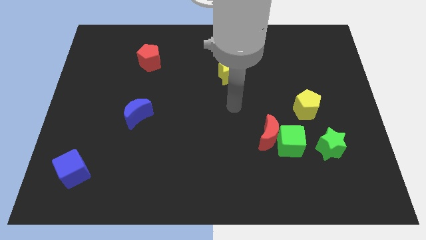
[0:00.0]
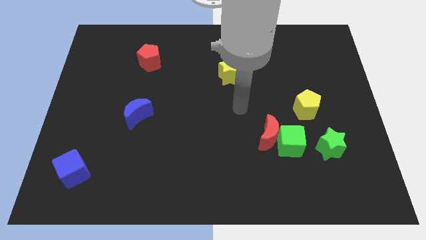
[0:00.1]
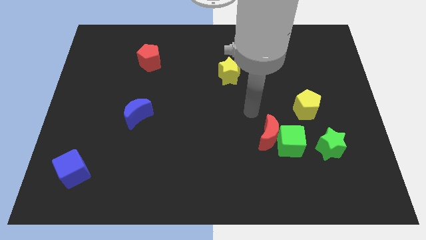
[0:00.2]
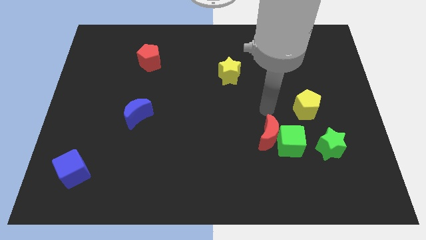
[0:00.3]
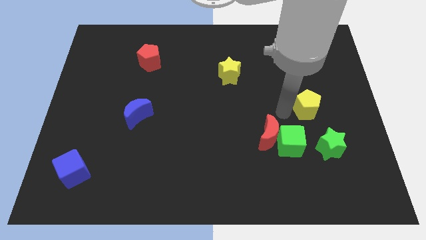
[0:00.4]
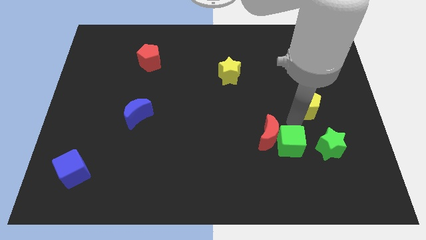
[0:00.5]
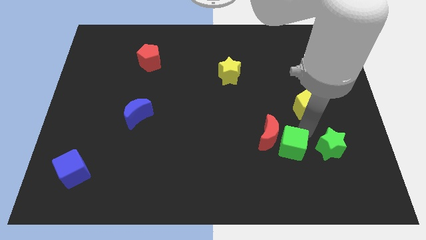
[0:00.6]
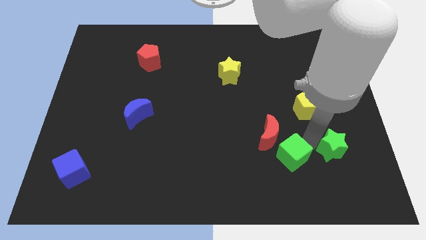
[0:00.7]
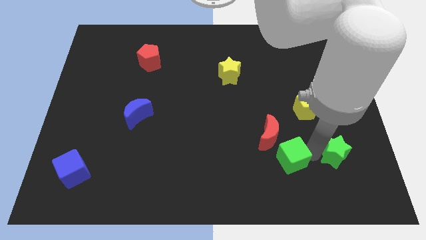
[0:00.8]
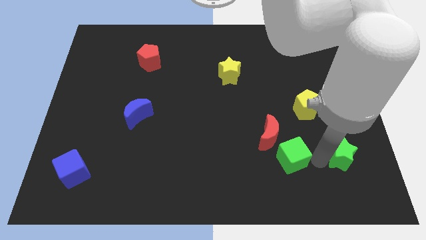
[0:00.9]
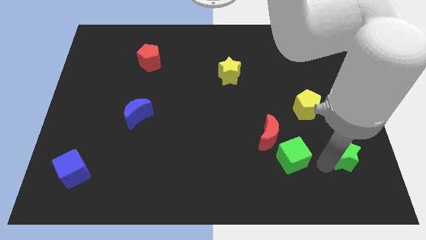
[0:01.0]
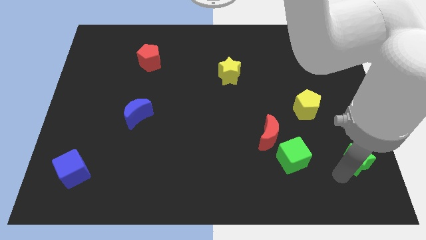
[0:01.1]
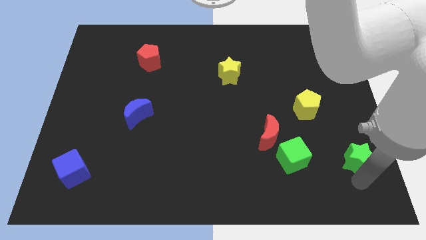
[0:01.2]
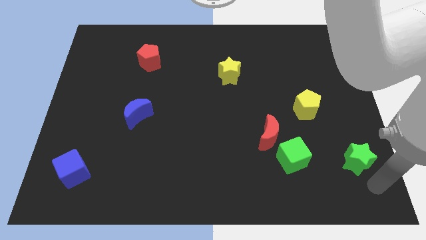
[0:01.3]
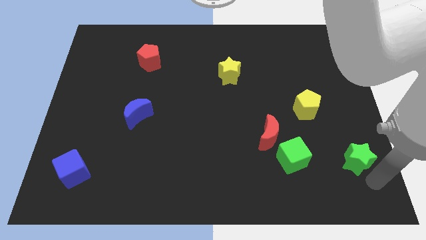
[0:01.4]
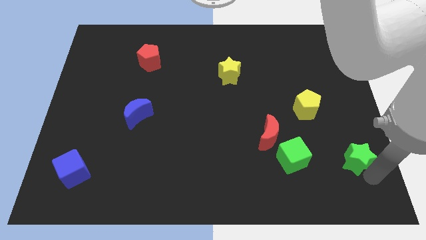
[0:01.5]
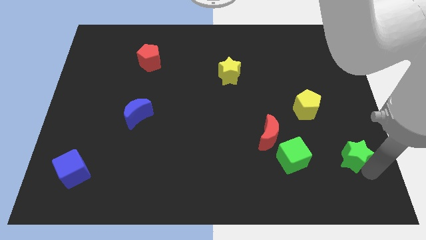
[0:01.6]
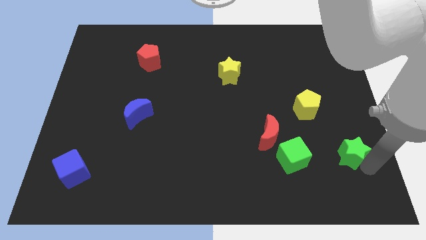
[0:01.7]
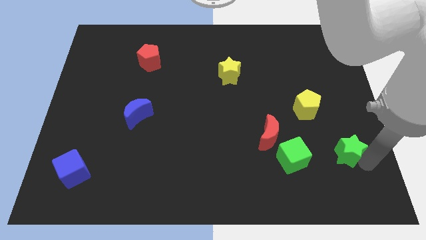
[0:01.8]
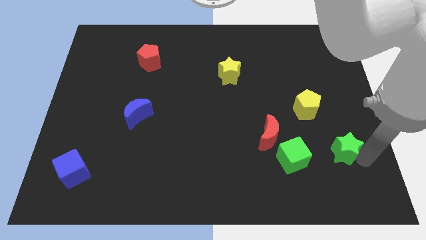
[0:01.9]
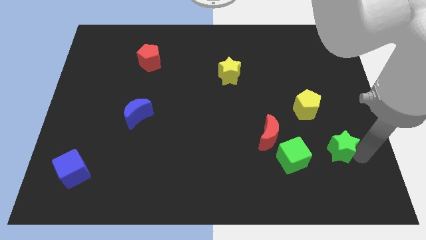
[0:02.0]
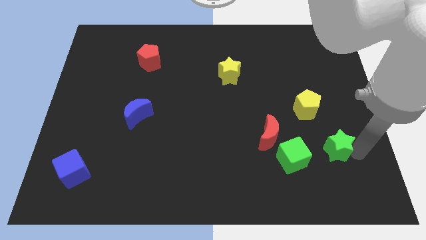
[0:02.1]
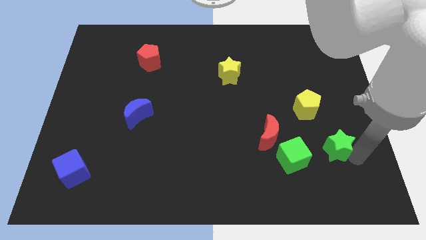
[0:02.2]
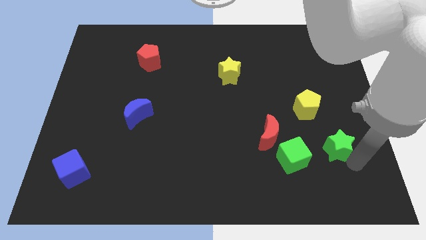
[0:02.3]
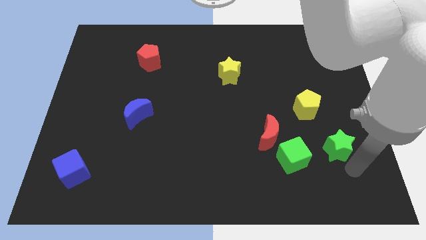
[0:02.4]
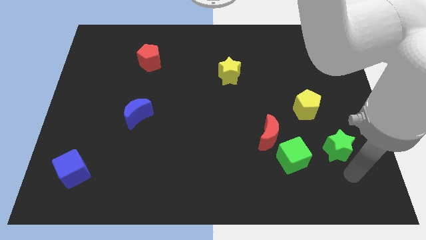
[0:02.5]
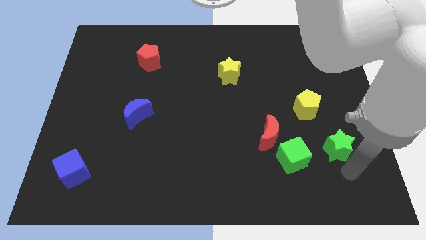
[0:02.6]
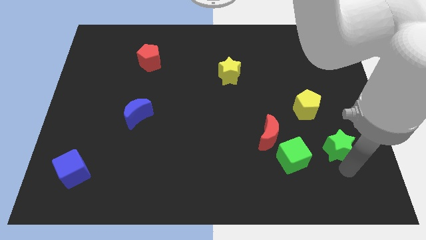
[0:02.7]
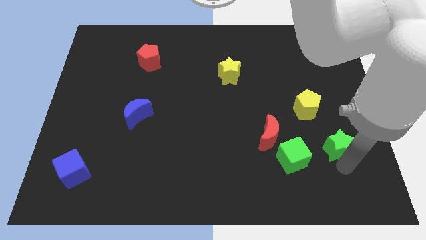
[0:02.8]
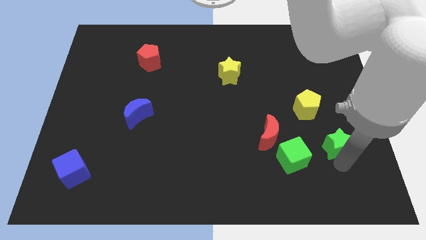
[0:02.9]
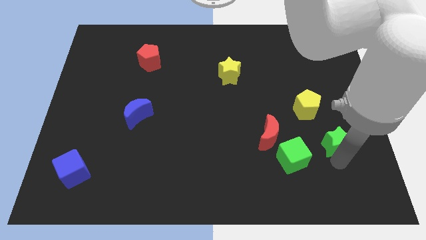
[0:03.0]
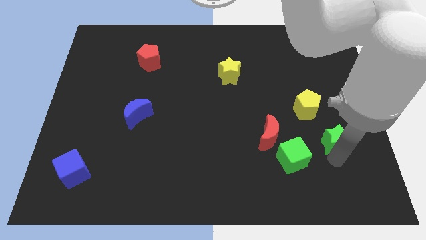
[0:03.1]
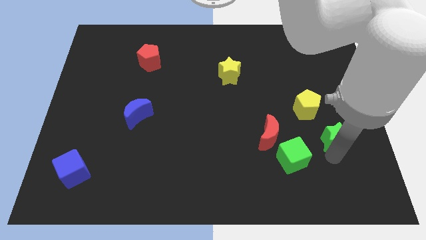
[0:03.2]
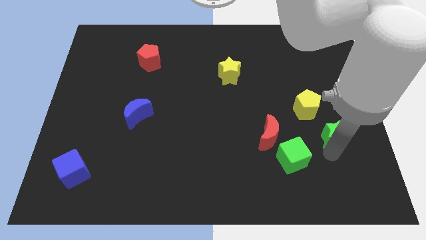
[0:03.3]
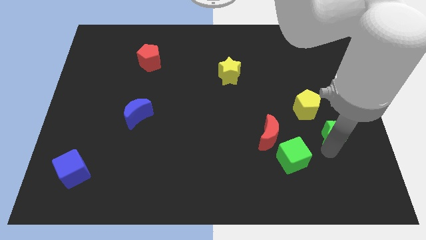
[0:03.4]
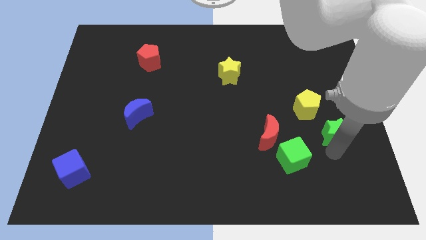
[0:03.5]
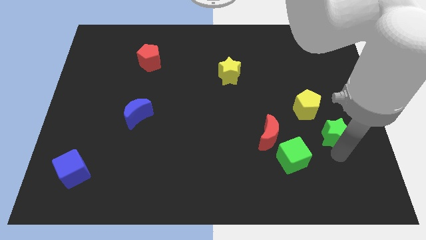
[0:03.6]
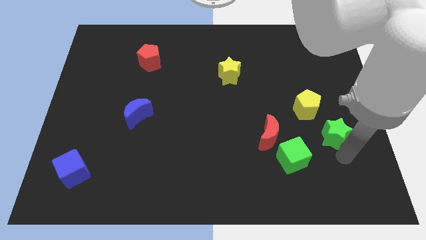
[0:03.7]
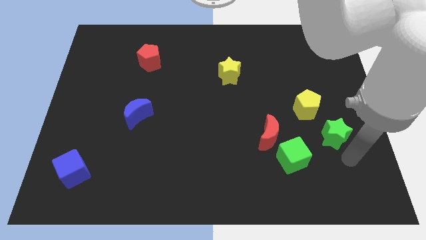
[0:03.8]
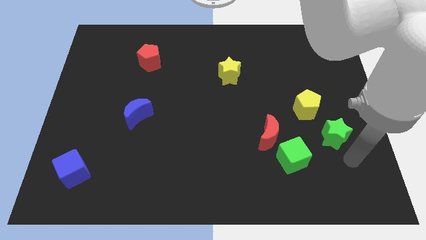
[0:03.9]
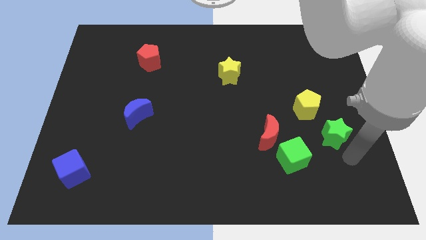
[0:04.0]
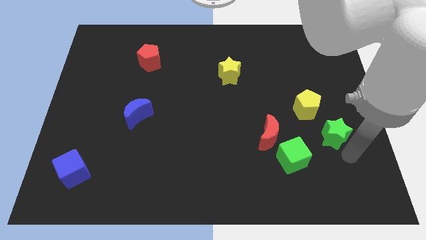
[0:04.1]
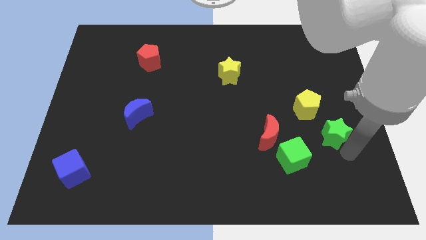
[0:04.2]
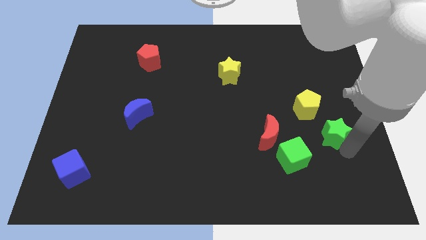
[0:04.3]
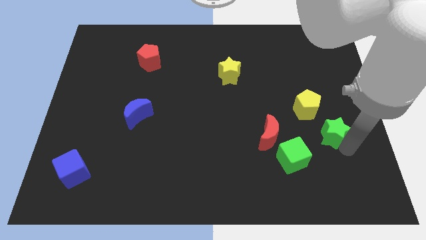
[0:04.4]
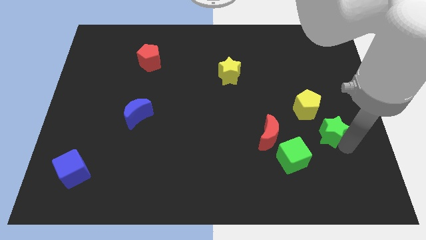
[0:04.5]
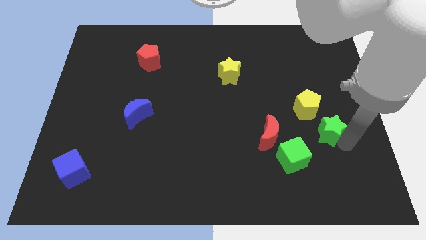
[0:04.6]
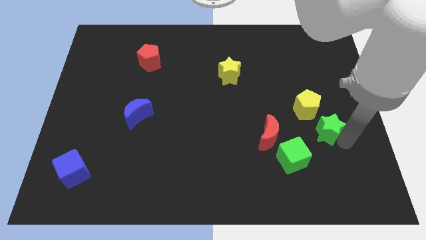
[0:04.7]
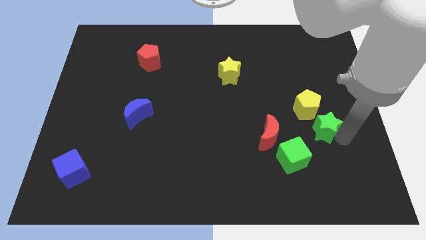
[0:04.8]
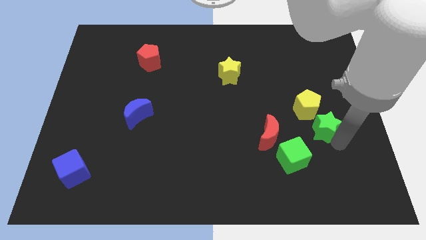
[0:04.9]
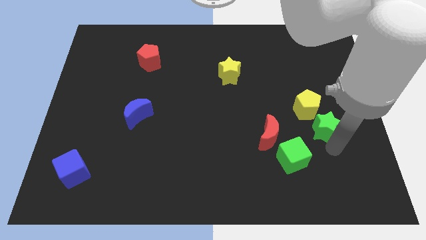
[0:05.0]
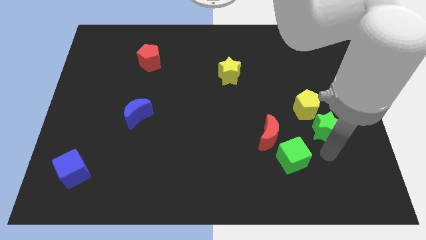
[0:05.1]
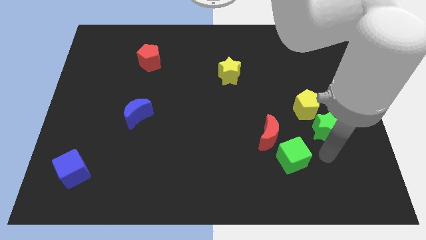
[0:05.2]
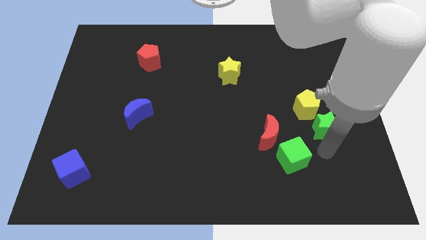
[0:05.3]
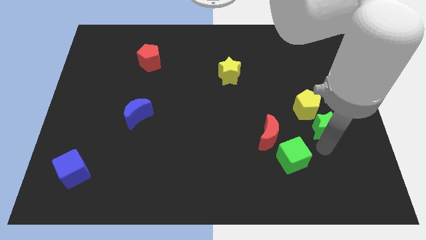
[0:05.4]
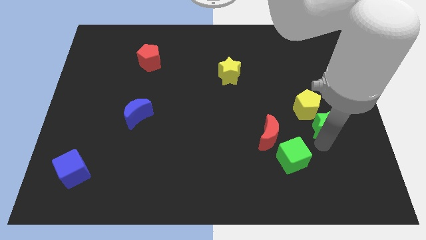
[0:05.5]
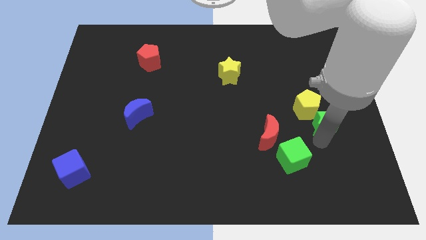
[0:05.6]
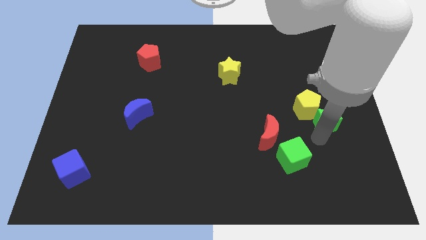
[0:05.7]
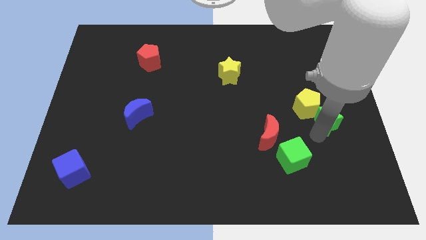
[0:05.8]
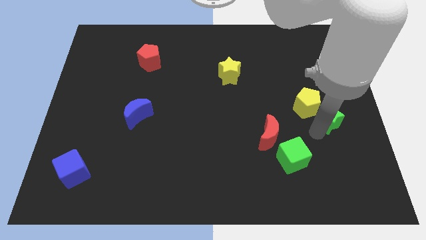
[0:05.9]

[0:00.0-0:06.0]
slide the green star up slightly

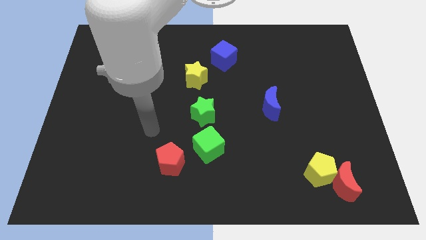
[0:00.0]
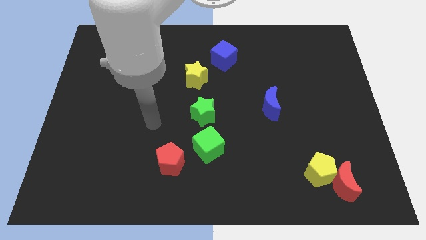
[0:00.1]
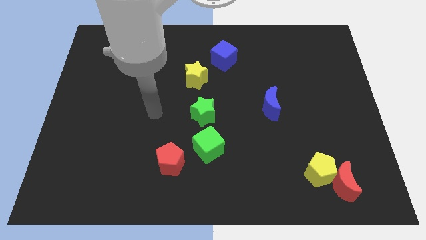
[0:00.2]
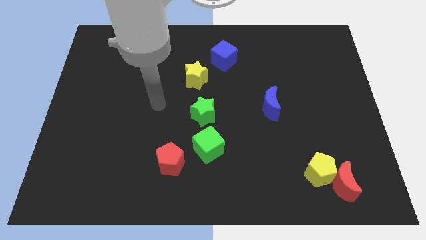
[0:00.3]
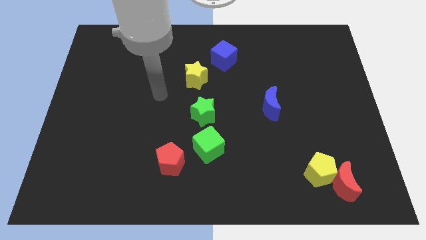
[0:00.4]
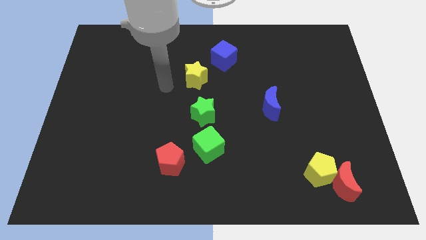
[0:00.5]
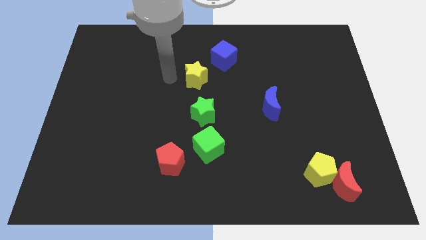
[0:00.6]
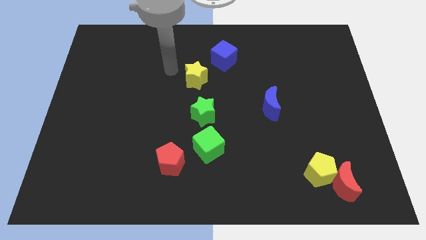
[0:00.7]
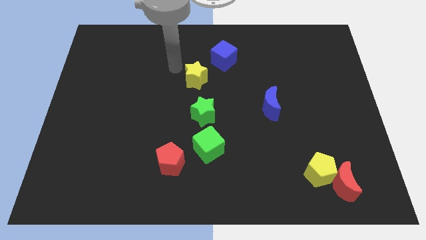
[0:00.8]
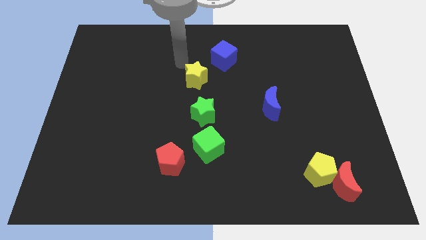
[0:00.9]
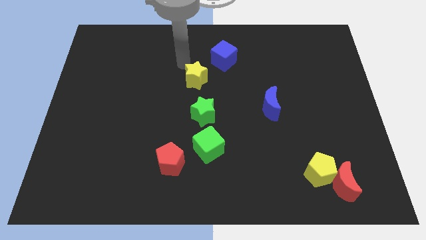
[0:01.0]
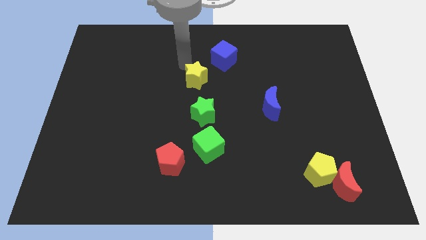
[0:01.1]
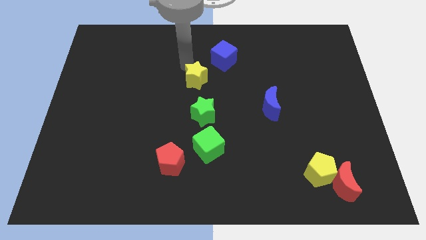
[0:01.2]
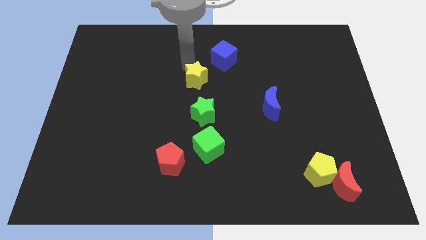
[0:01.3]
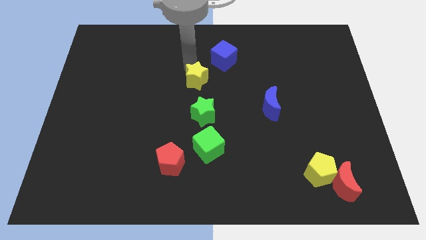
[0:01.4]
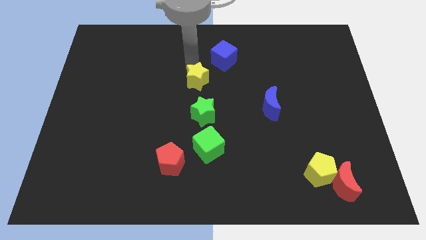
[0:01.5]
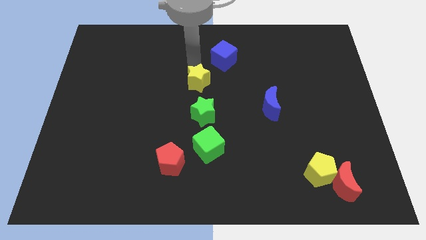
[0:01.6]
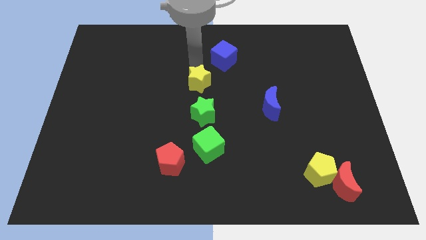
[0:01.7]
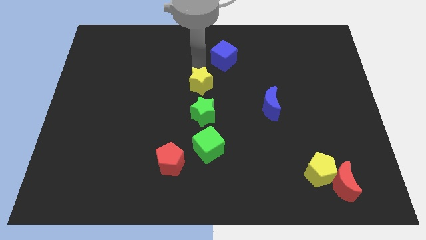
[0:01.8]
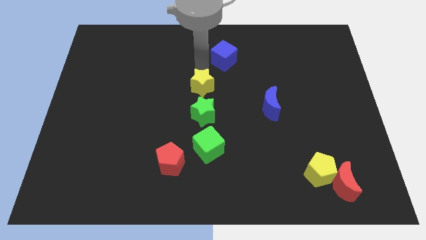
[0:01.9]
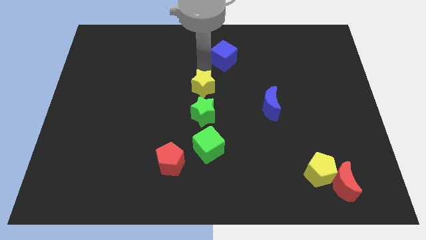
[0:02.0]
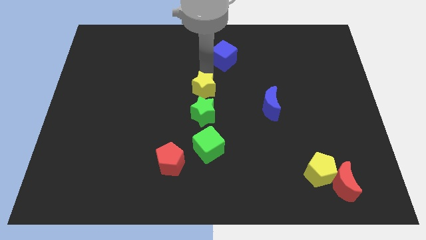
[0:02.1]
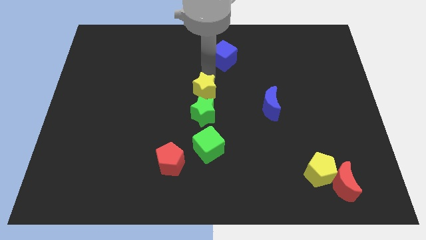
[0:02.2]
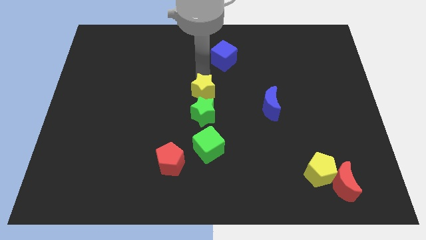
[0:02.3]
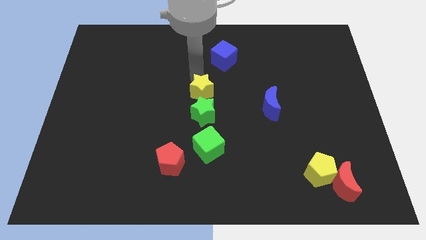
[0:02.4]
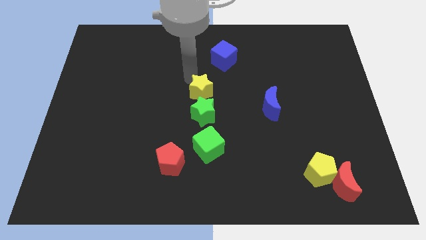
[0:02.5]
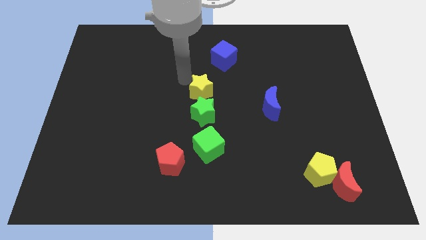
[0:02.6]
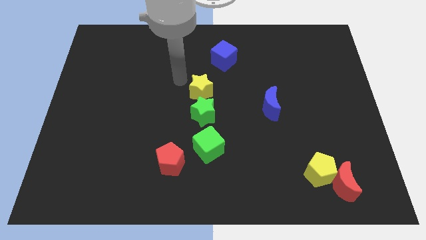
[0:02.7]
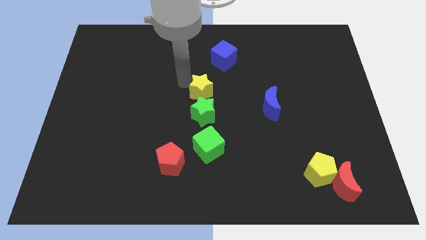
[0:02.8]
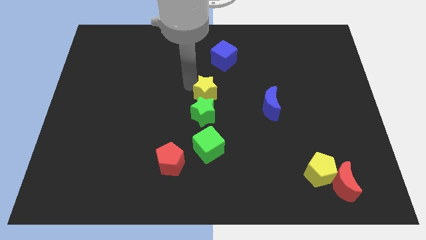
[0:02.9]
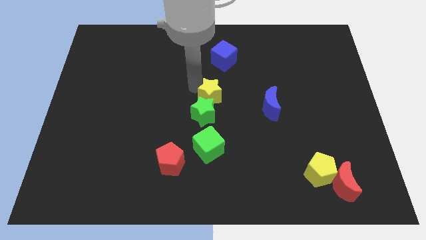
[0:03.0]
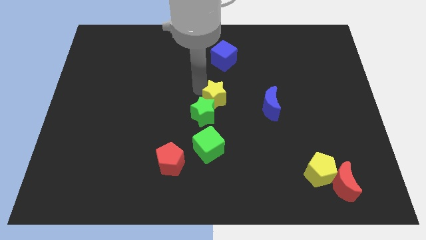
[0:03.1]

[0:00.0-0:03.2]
move the yellow star downwards and right diagonally slightly
